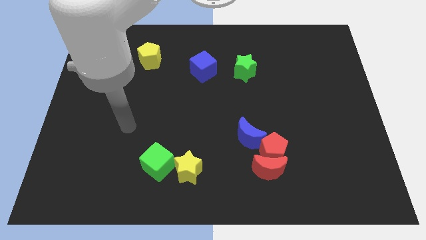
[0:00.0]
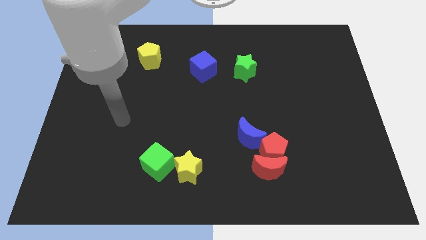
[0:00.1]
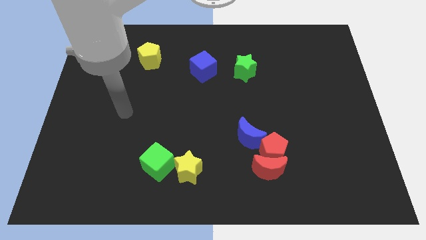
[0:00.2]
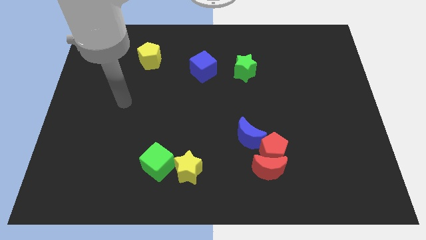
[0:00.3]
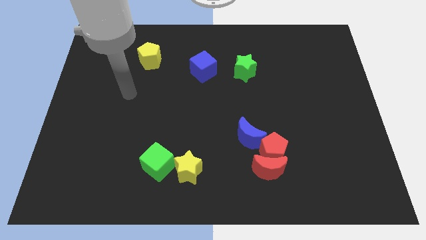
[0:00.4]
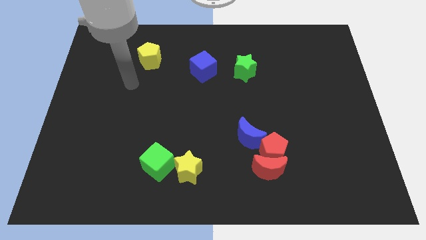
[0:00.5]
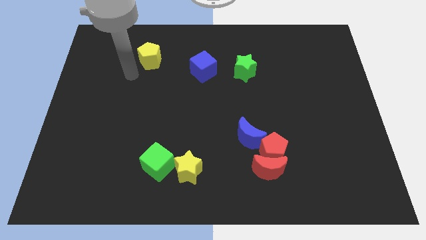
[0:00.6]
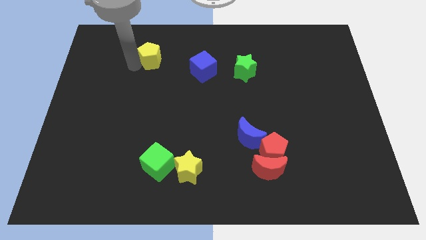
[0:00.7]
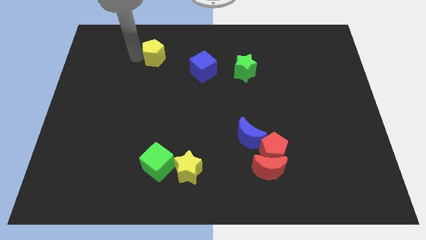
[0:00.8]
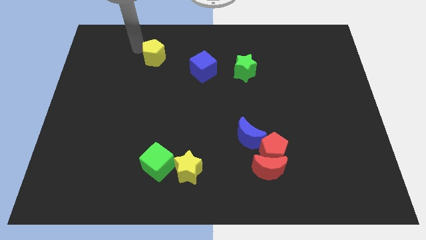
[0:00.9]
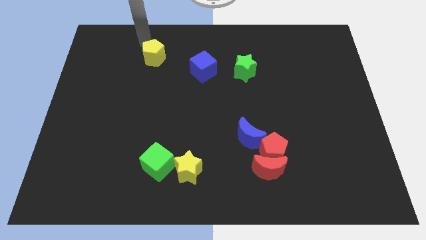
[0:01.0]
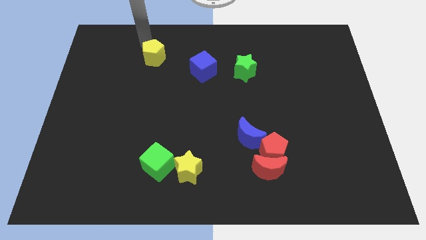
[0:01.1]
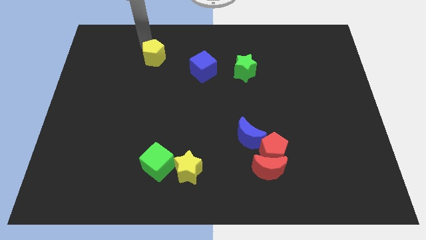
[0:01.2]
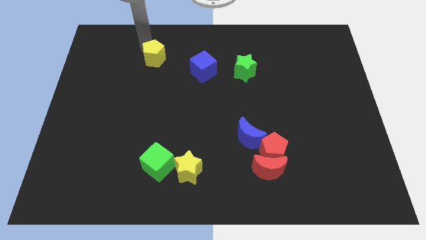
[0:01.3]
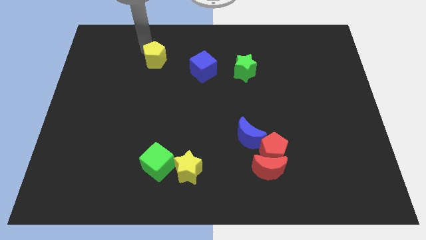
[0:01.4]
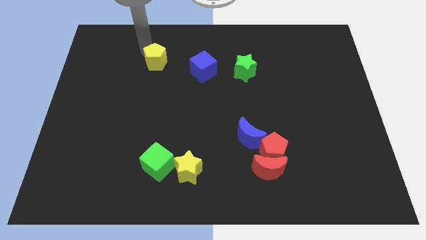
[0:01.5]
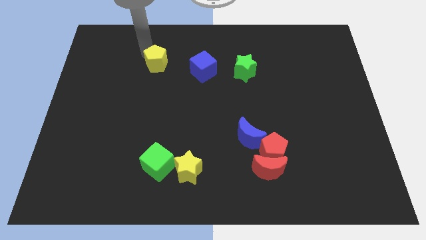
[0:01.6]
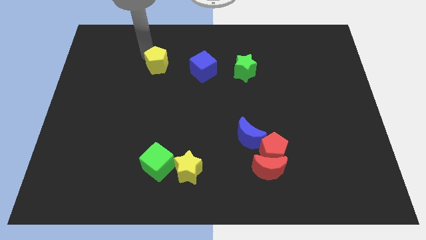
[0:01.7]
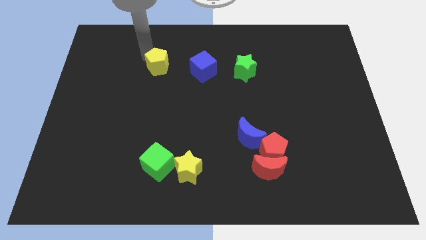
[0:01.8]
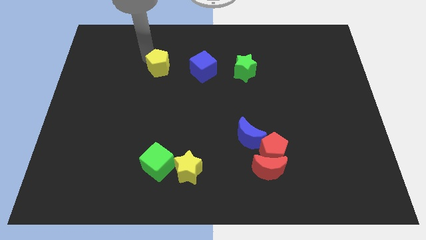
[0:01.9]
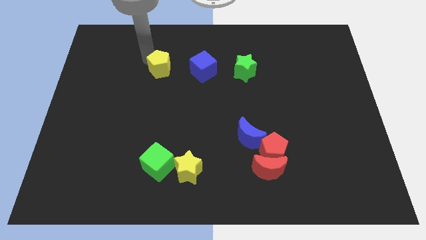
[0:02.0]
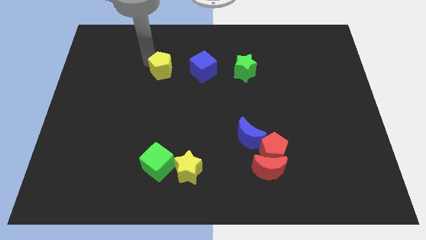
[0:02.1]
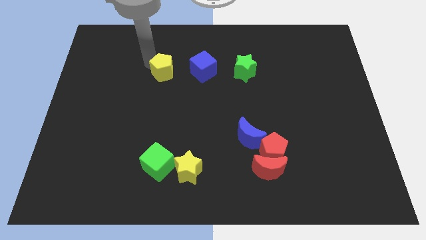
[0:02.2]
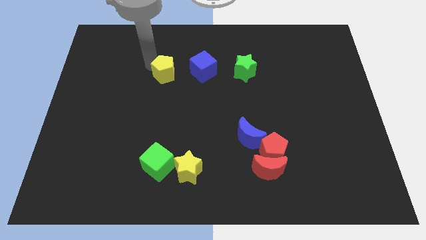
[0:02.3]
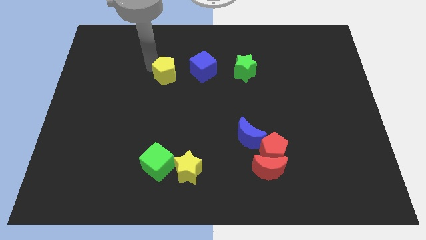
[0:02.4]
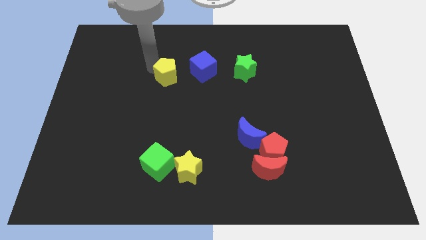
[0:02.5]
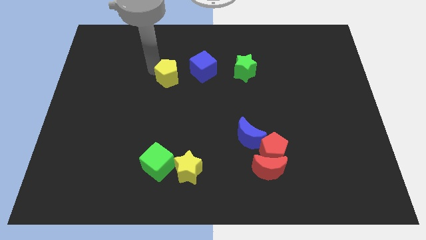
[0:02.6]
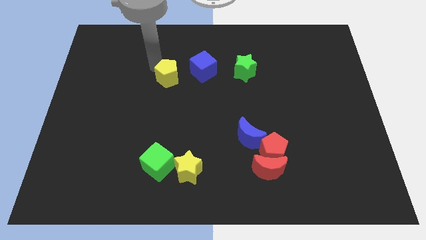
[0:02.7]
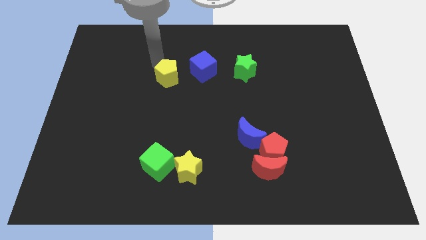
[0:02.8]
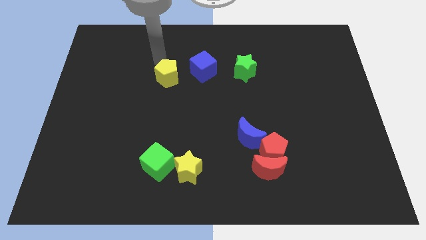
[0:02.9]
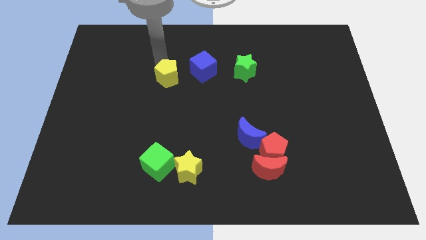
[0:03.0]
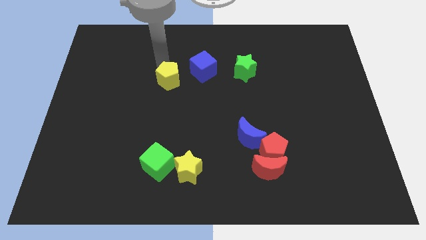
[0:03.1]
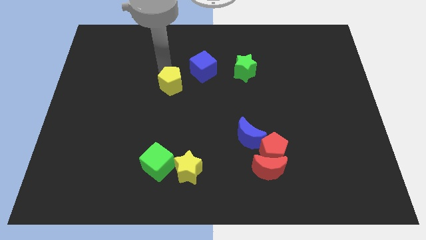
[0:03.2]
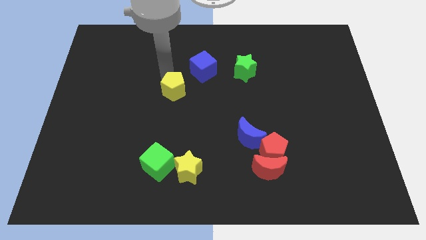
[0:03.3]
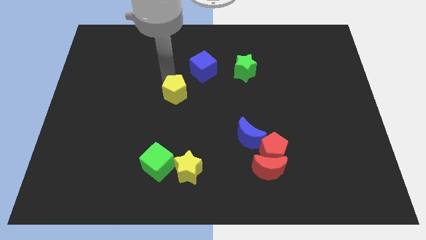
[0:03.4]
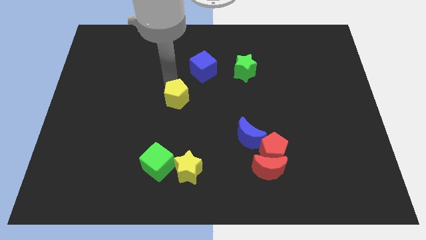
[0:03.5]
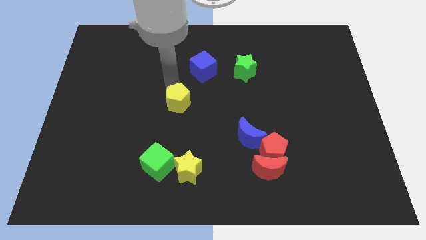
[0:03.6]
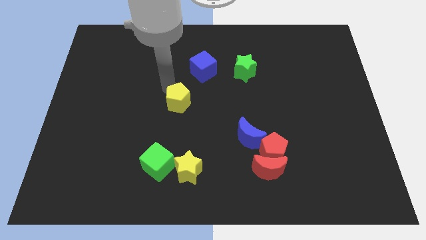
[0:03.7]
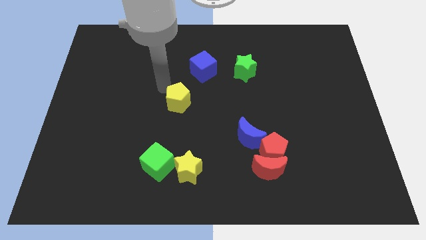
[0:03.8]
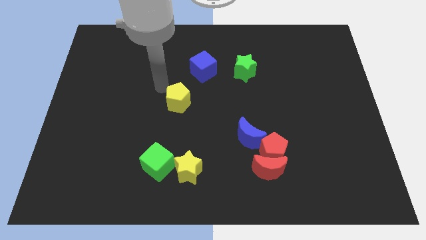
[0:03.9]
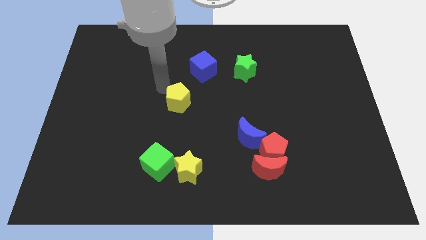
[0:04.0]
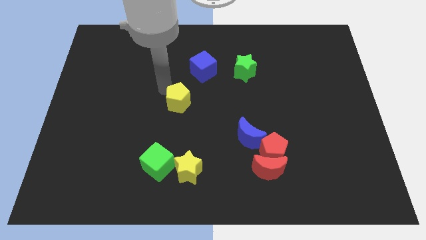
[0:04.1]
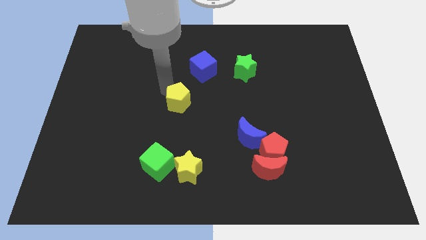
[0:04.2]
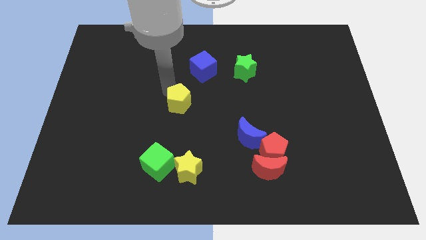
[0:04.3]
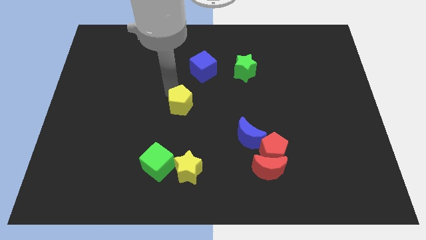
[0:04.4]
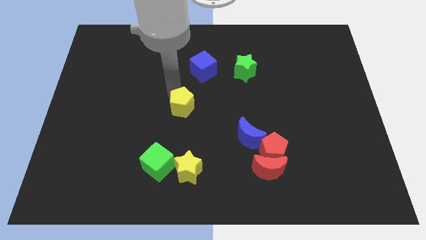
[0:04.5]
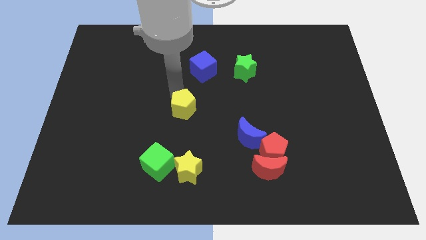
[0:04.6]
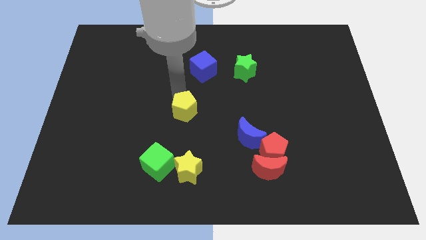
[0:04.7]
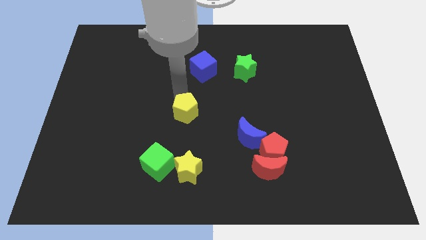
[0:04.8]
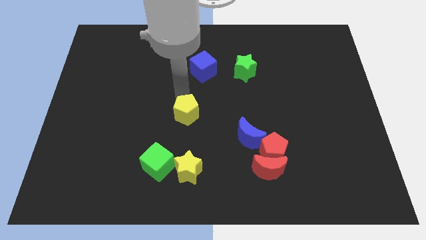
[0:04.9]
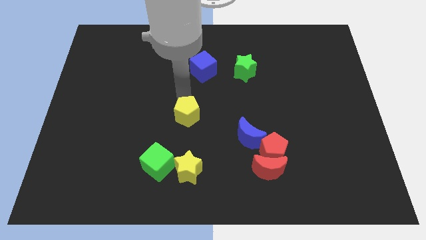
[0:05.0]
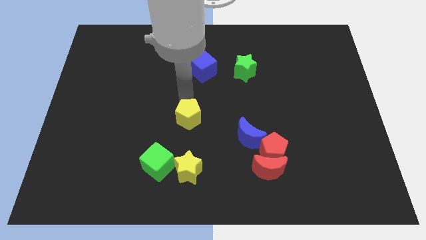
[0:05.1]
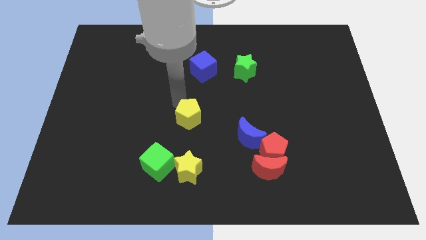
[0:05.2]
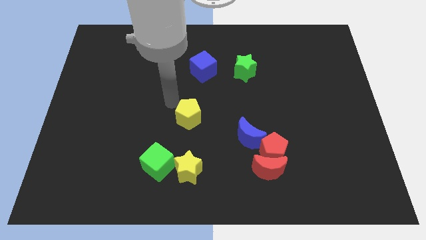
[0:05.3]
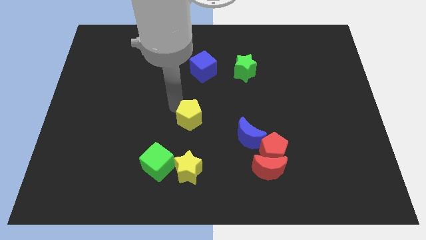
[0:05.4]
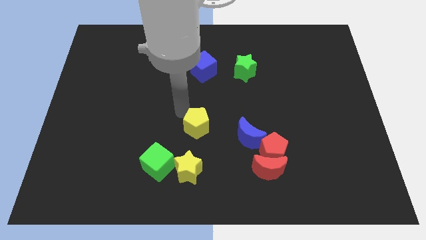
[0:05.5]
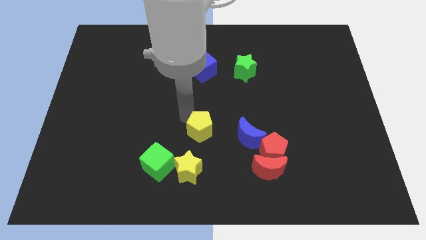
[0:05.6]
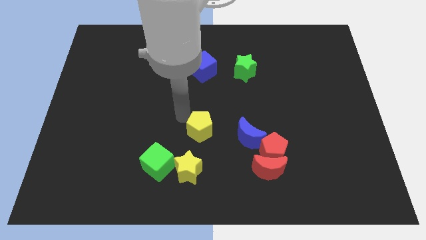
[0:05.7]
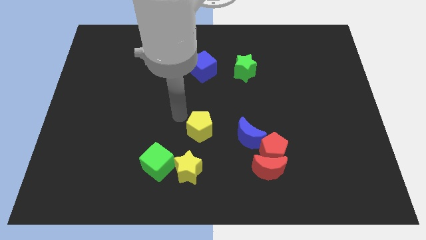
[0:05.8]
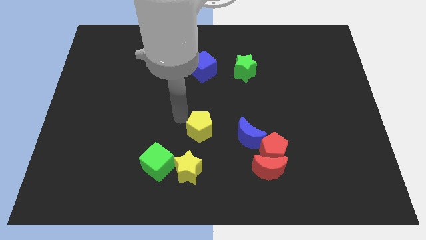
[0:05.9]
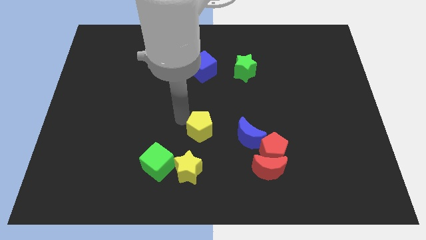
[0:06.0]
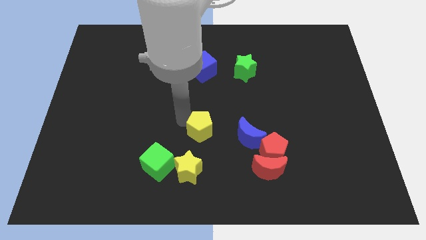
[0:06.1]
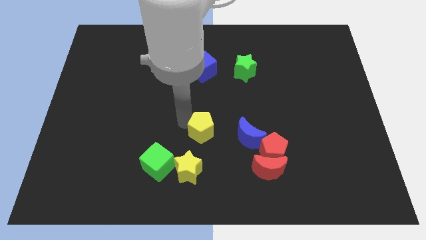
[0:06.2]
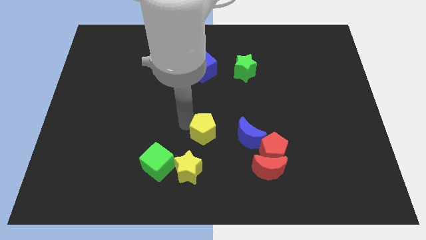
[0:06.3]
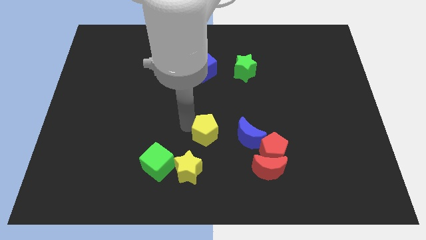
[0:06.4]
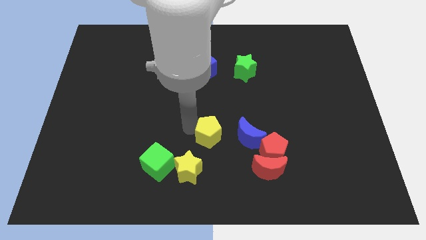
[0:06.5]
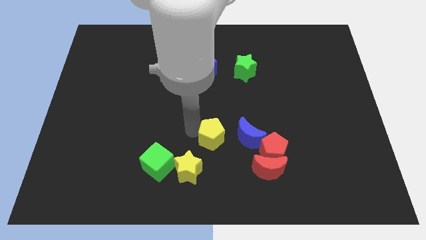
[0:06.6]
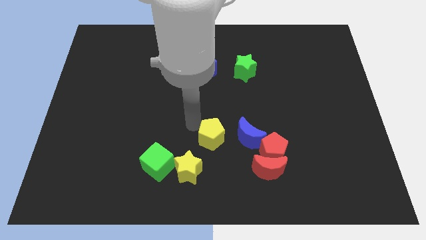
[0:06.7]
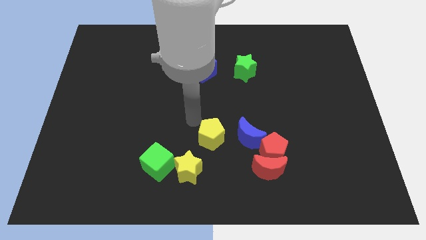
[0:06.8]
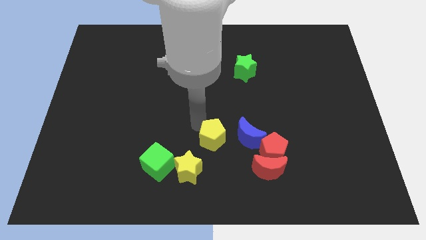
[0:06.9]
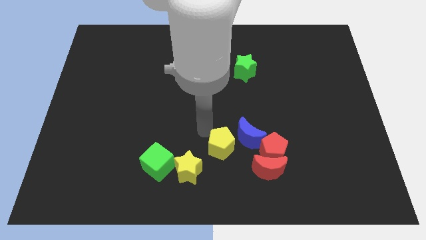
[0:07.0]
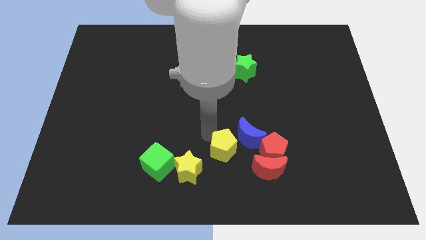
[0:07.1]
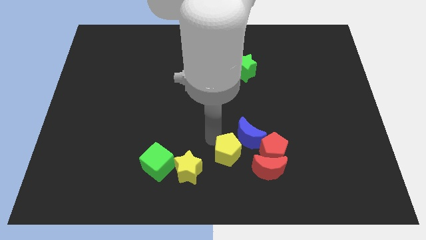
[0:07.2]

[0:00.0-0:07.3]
push the yellow pentagon to the bottom of the blue moon
